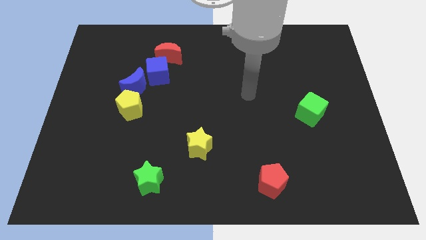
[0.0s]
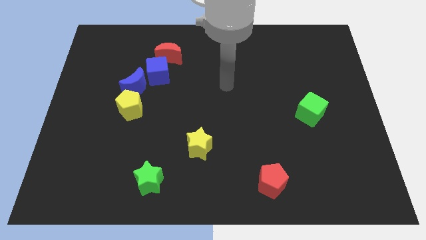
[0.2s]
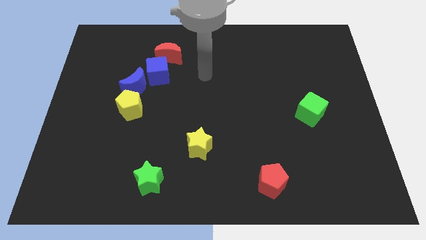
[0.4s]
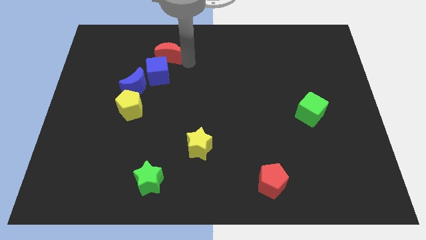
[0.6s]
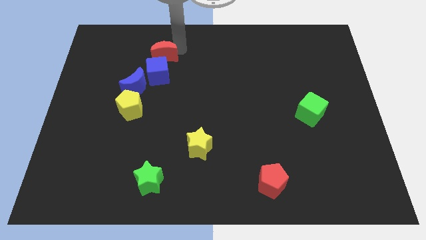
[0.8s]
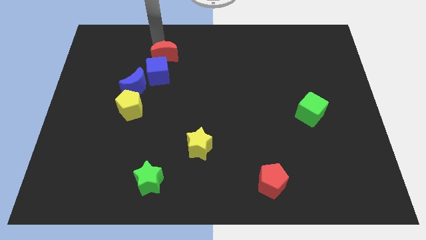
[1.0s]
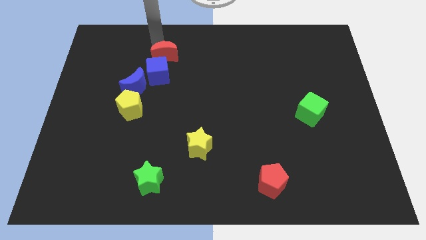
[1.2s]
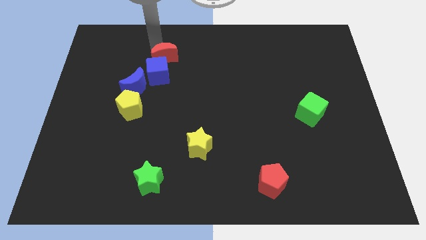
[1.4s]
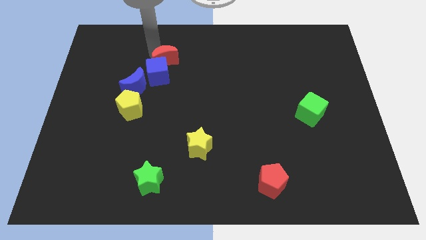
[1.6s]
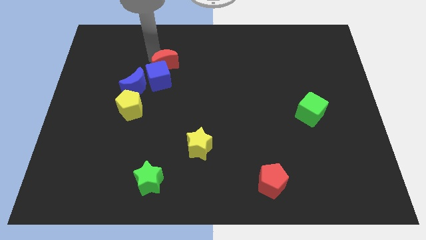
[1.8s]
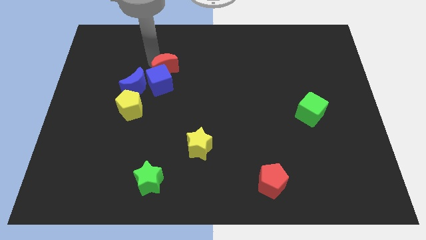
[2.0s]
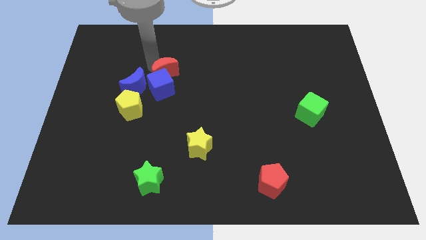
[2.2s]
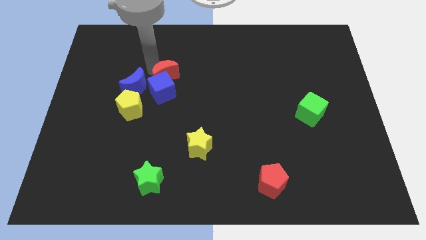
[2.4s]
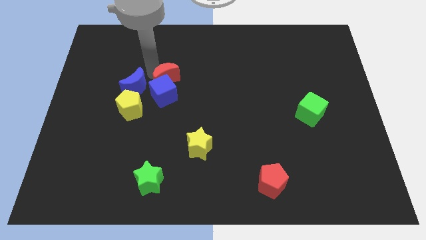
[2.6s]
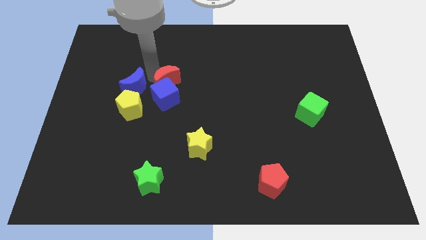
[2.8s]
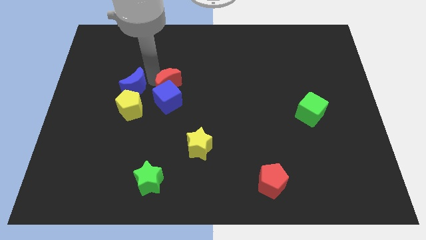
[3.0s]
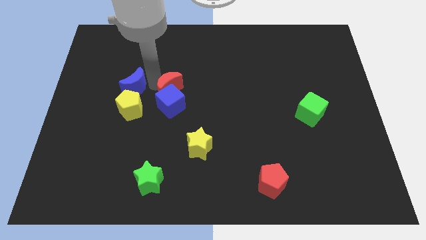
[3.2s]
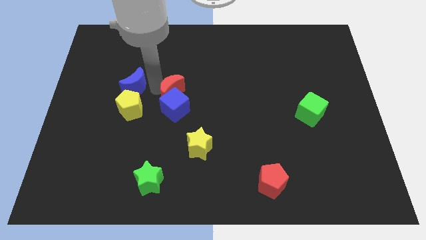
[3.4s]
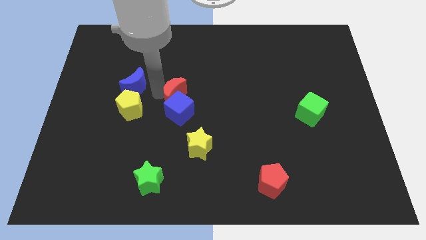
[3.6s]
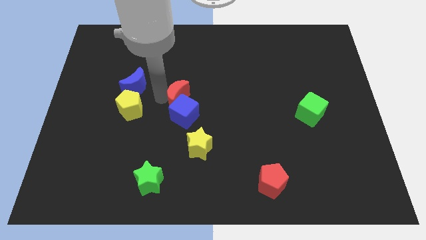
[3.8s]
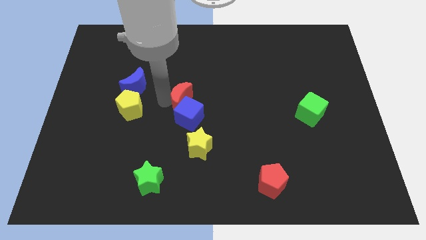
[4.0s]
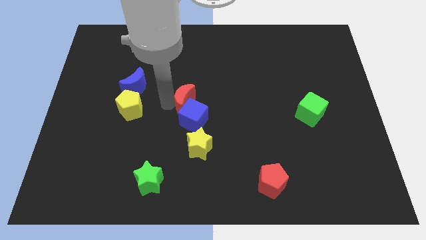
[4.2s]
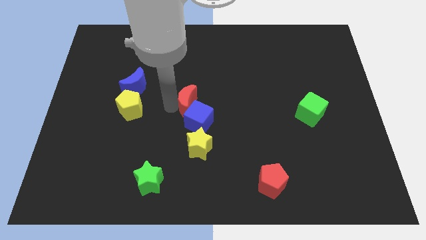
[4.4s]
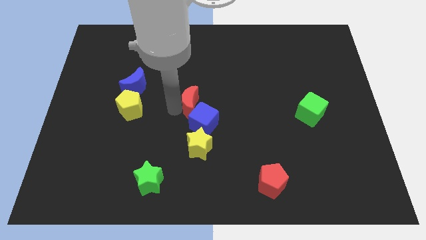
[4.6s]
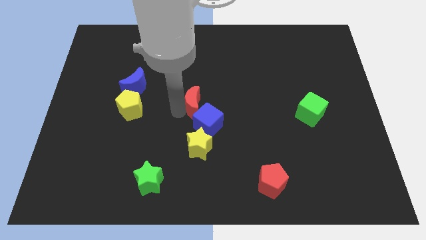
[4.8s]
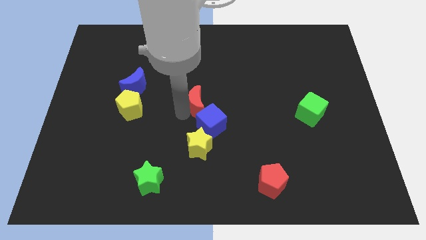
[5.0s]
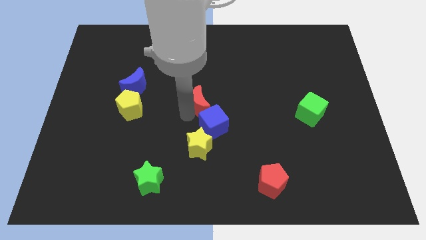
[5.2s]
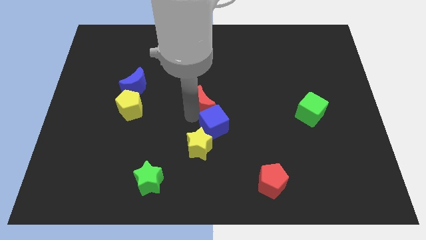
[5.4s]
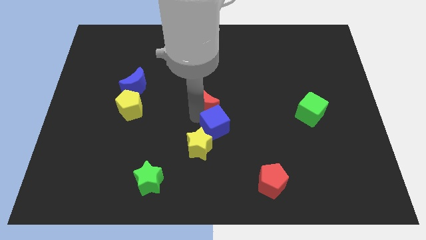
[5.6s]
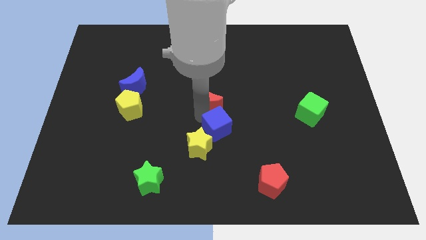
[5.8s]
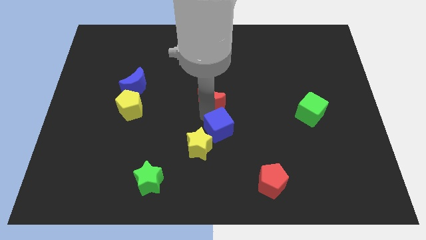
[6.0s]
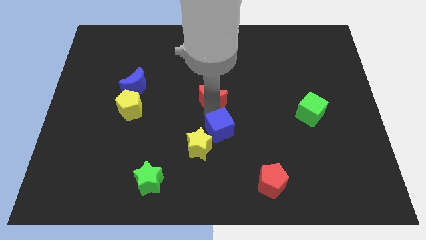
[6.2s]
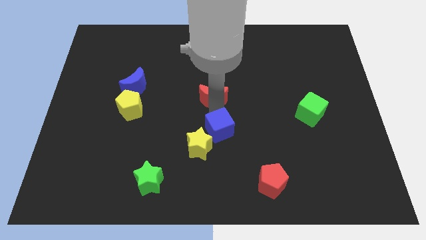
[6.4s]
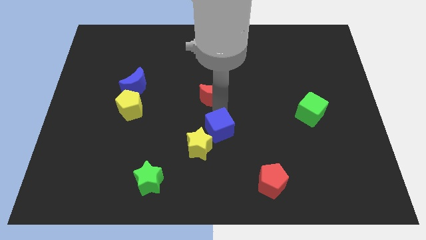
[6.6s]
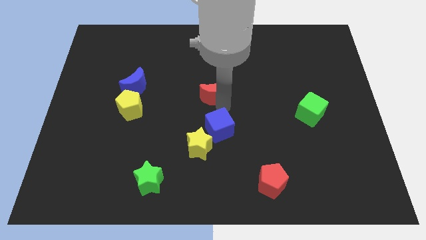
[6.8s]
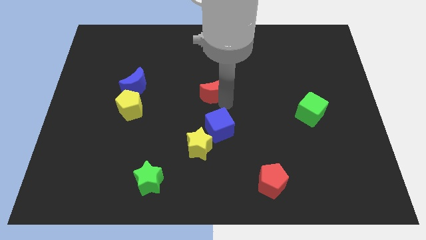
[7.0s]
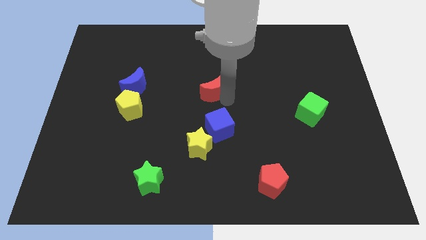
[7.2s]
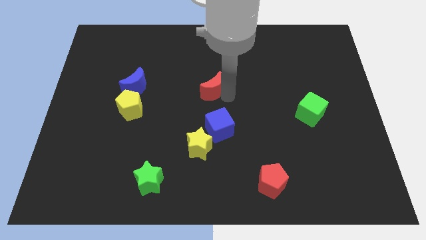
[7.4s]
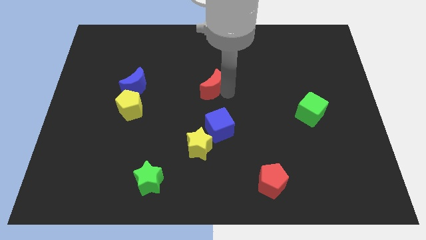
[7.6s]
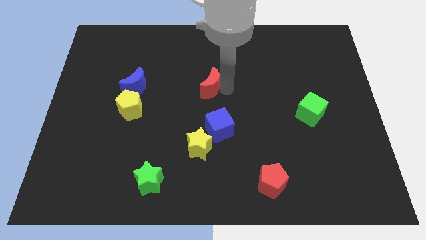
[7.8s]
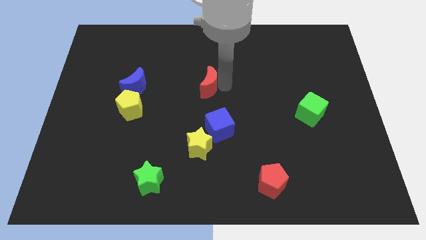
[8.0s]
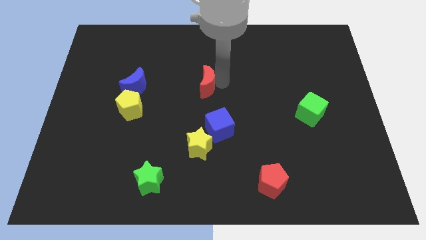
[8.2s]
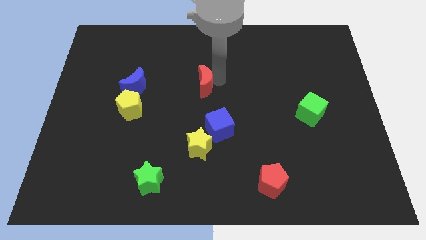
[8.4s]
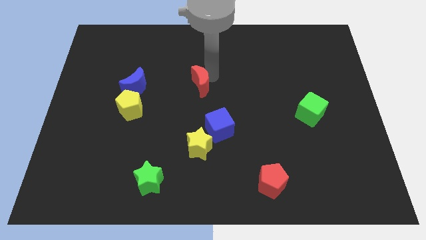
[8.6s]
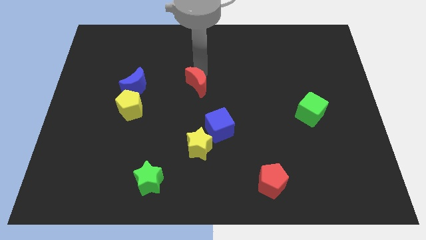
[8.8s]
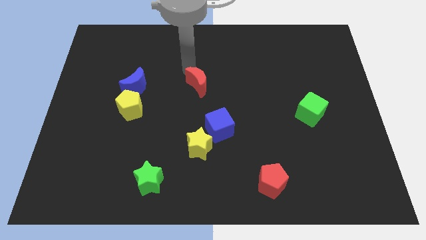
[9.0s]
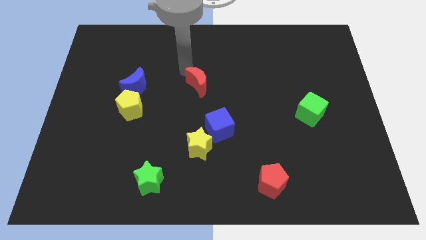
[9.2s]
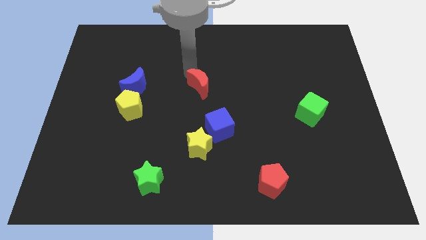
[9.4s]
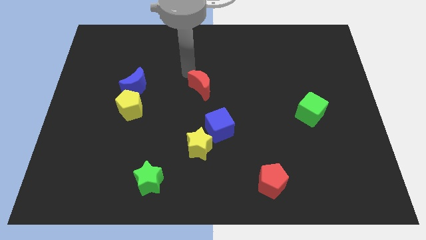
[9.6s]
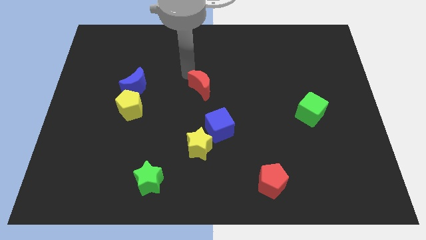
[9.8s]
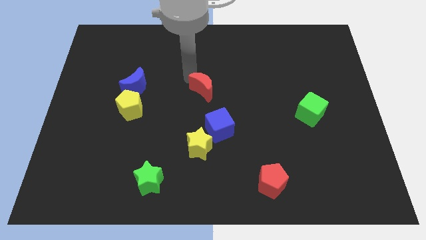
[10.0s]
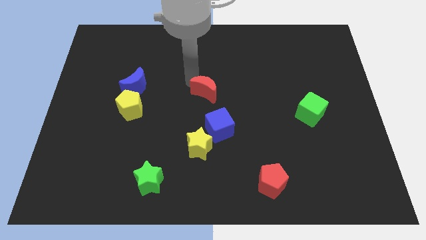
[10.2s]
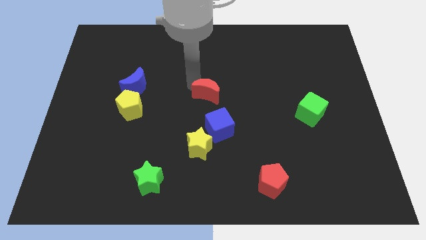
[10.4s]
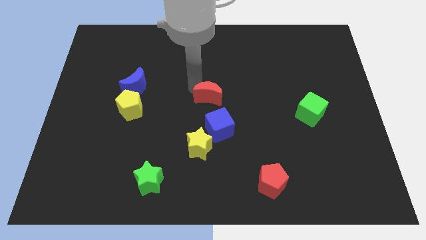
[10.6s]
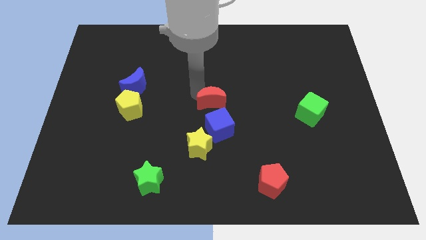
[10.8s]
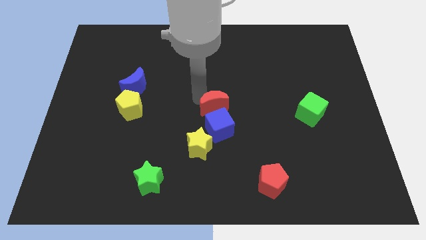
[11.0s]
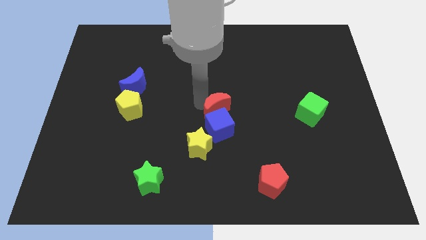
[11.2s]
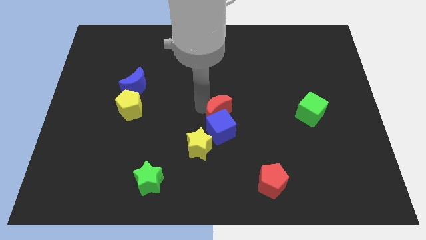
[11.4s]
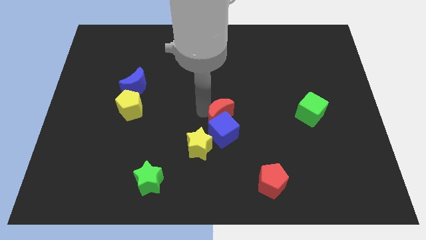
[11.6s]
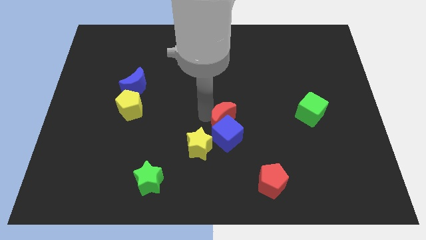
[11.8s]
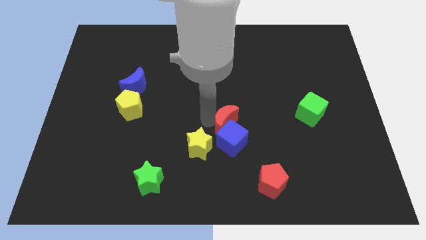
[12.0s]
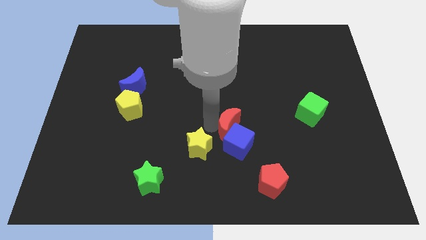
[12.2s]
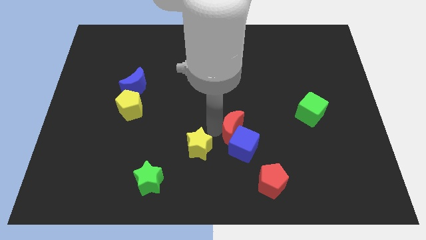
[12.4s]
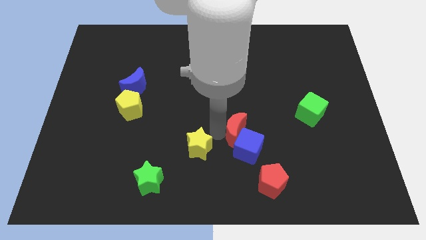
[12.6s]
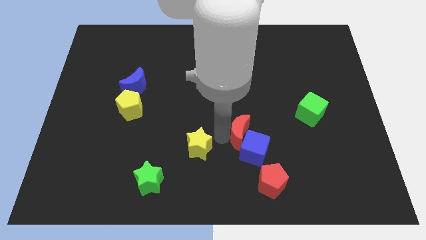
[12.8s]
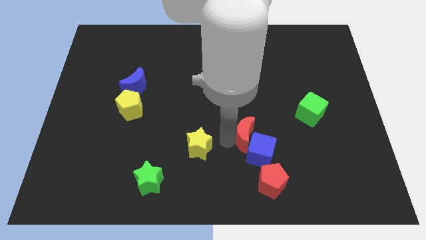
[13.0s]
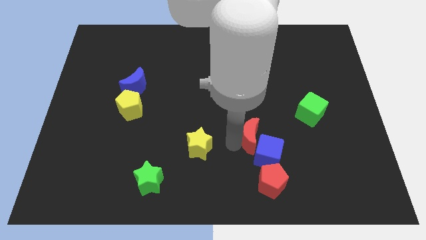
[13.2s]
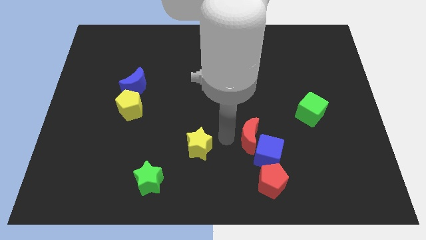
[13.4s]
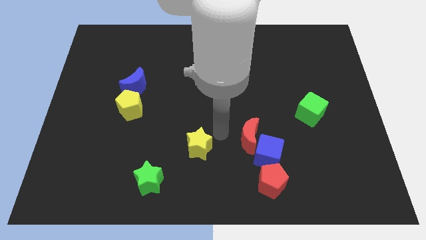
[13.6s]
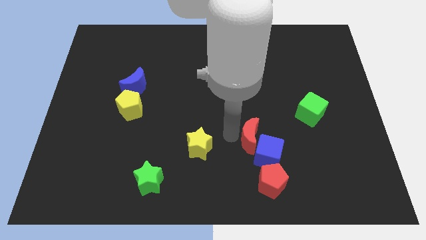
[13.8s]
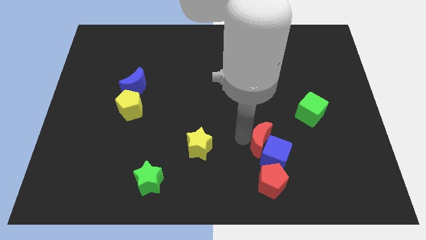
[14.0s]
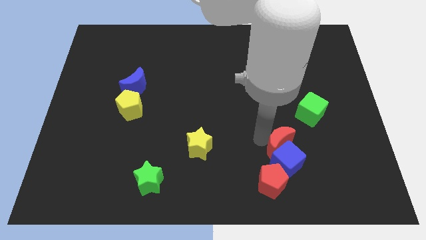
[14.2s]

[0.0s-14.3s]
slide the red moon diagonally up and to the right of the red pentagon
